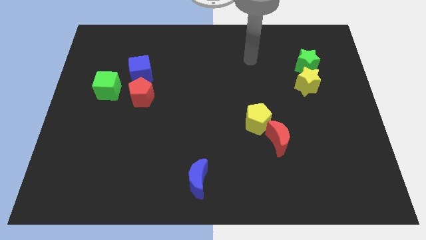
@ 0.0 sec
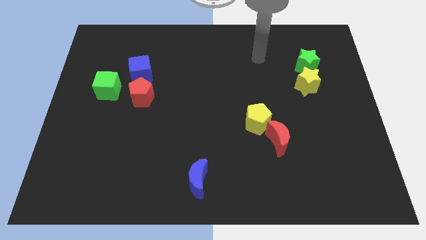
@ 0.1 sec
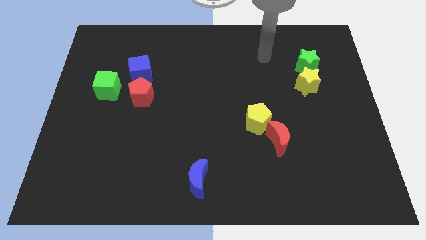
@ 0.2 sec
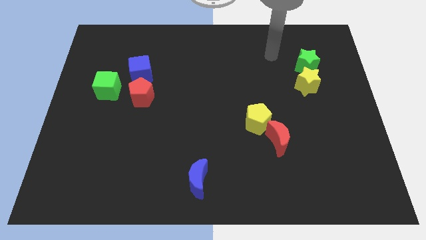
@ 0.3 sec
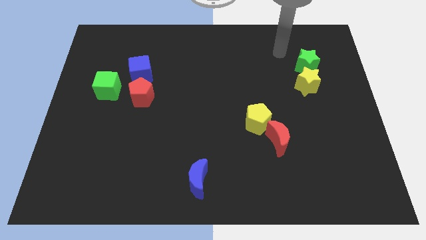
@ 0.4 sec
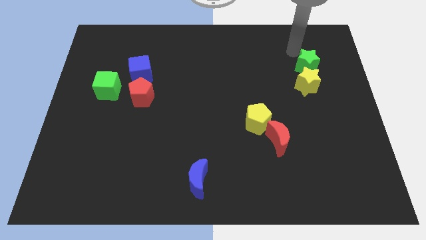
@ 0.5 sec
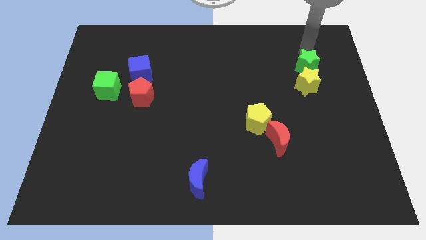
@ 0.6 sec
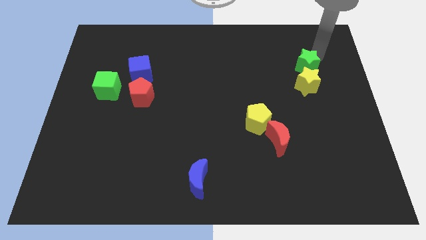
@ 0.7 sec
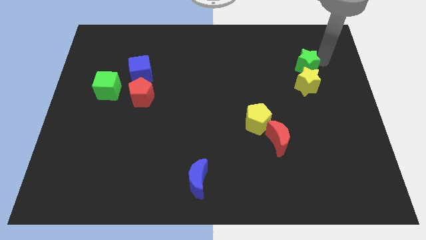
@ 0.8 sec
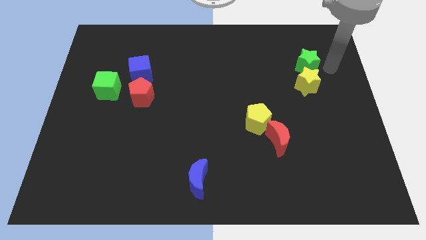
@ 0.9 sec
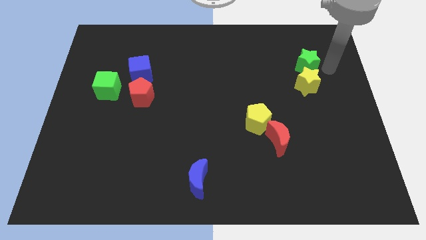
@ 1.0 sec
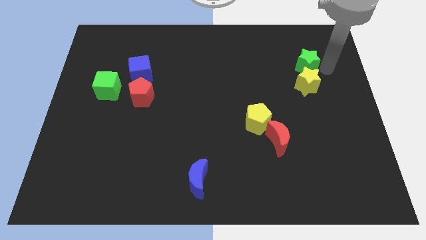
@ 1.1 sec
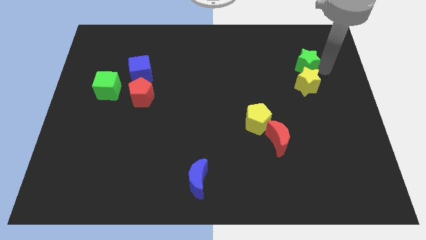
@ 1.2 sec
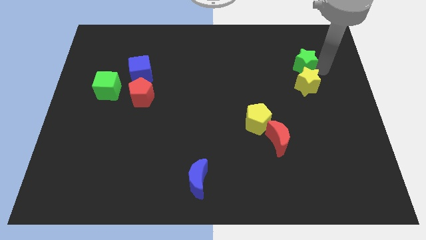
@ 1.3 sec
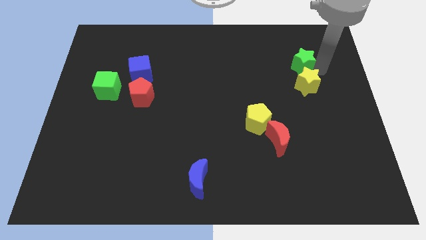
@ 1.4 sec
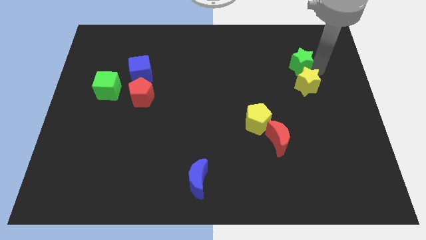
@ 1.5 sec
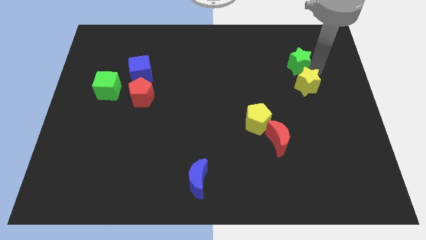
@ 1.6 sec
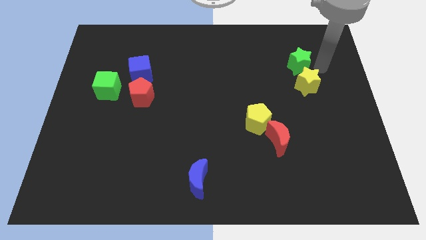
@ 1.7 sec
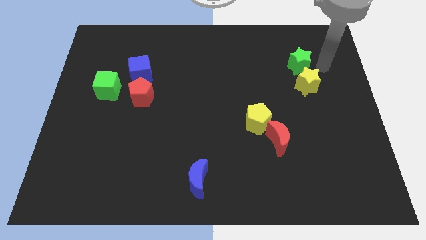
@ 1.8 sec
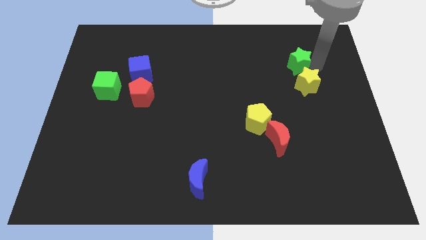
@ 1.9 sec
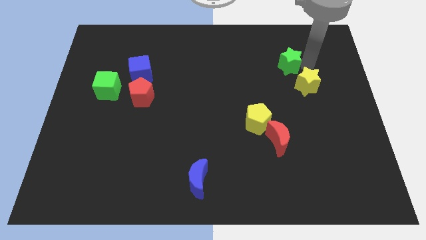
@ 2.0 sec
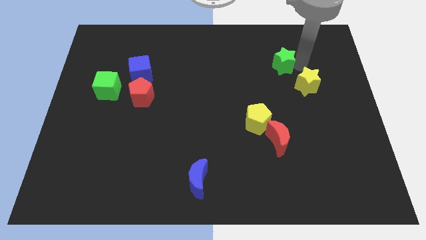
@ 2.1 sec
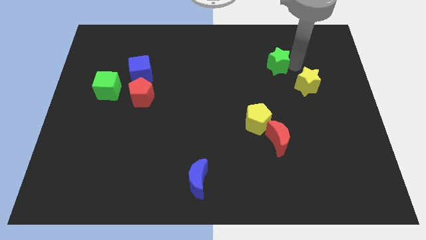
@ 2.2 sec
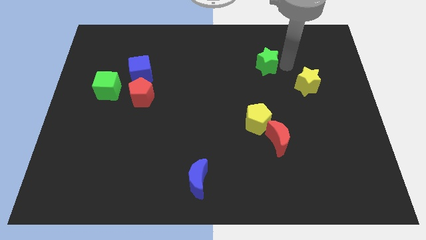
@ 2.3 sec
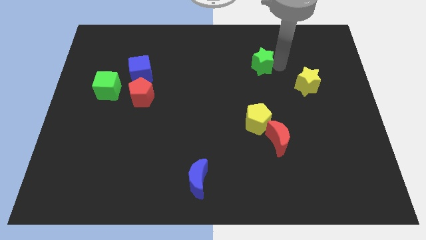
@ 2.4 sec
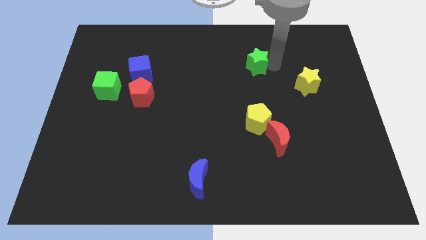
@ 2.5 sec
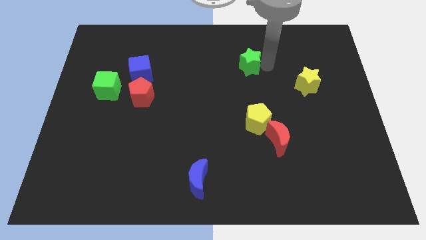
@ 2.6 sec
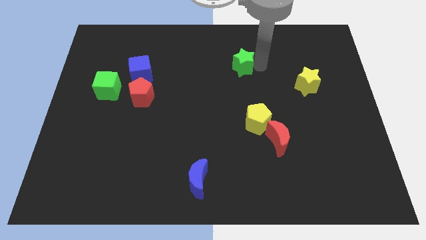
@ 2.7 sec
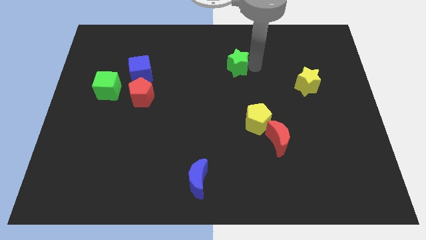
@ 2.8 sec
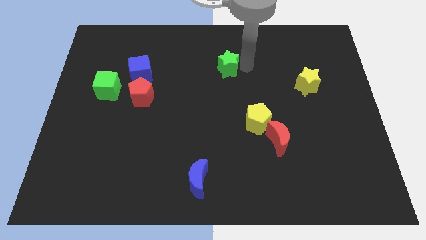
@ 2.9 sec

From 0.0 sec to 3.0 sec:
slide the green star left

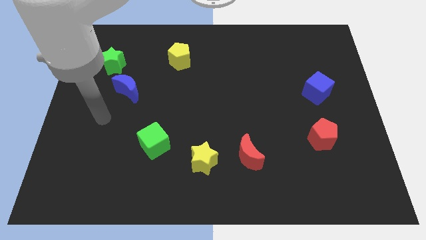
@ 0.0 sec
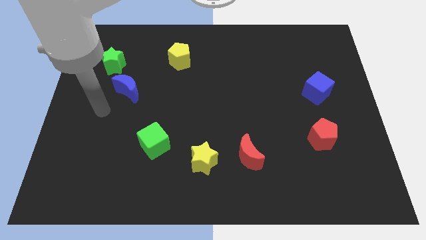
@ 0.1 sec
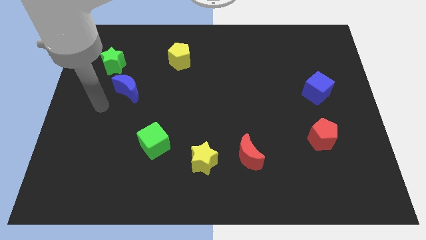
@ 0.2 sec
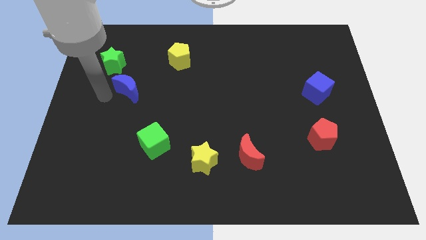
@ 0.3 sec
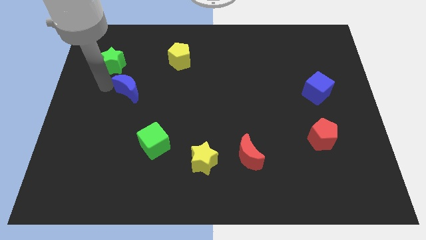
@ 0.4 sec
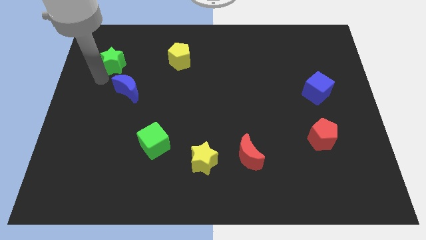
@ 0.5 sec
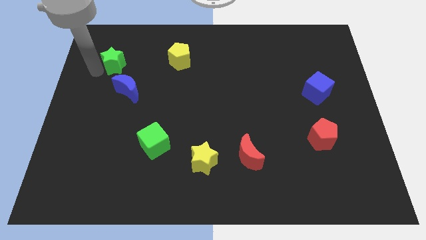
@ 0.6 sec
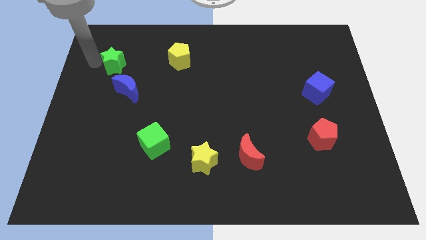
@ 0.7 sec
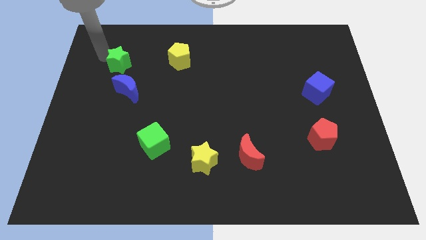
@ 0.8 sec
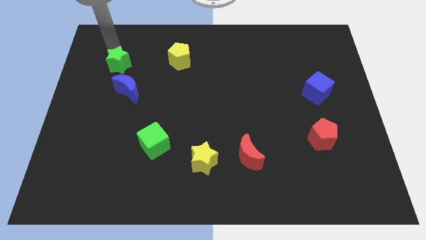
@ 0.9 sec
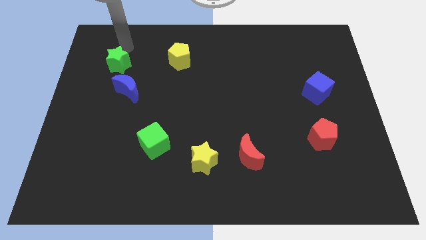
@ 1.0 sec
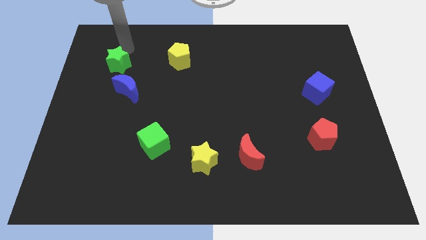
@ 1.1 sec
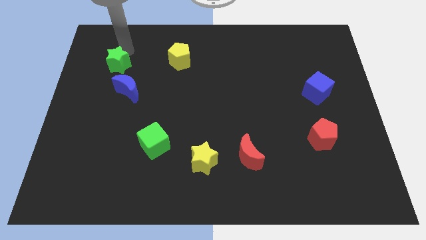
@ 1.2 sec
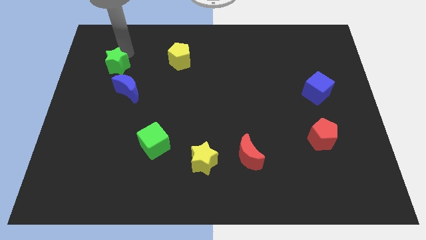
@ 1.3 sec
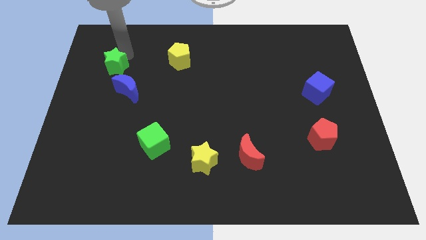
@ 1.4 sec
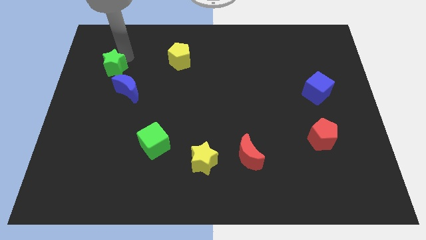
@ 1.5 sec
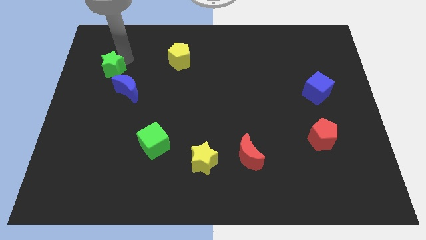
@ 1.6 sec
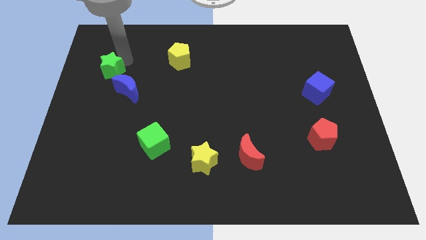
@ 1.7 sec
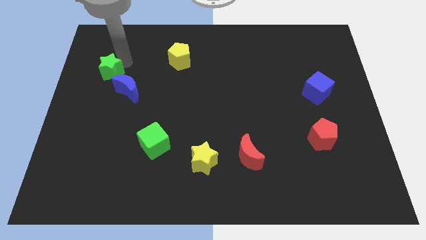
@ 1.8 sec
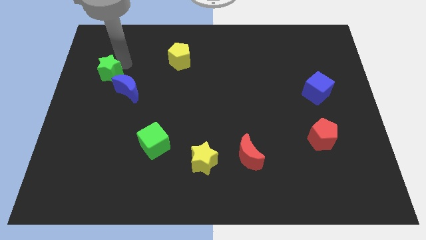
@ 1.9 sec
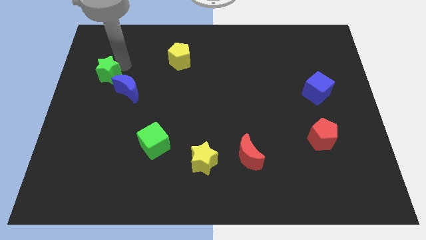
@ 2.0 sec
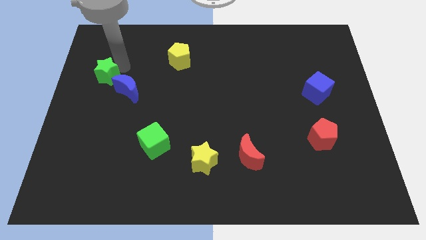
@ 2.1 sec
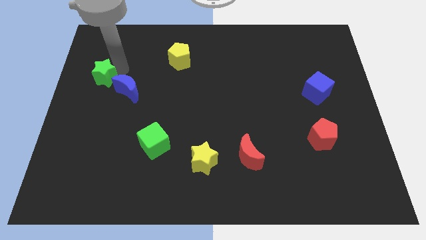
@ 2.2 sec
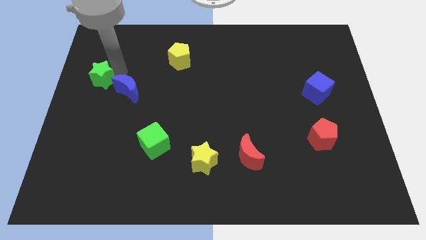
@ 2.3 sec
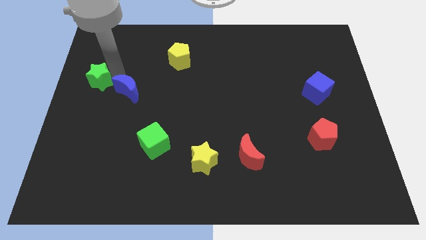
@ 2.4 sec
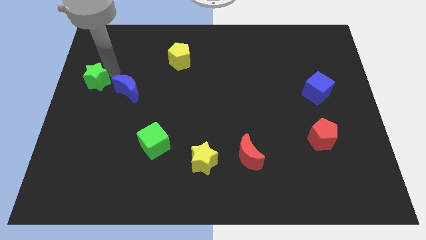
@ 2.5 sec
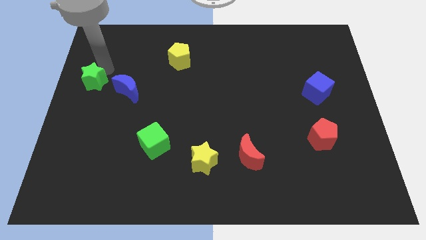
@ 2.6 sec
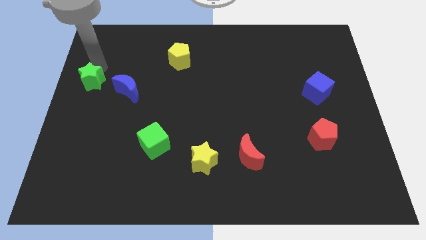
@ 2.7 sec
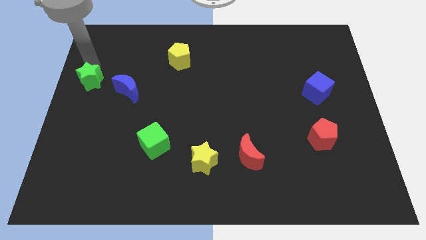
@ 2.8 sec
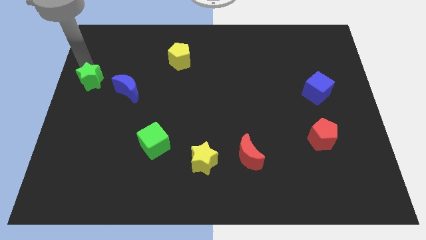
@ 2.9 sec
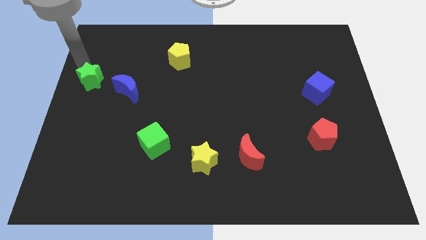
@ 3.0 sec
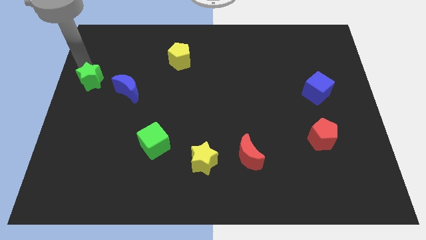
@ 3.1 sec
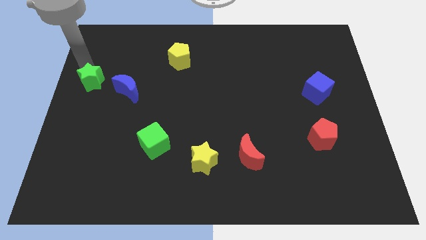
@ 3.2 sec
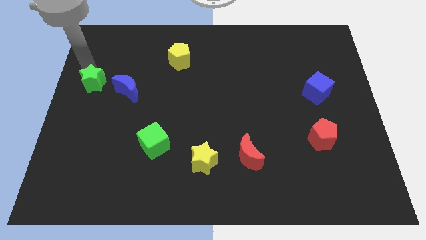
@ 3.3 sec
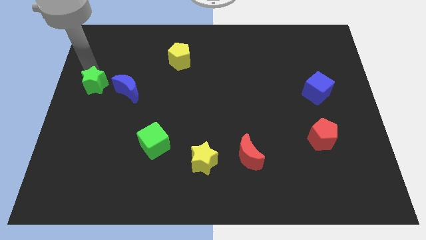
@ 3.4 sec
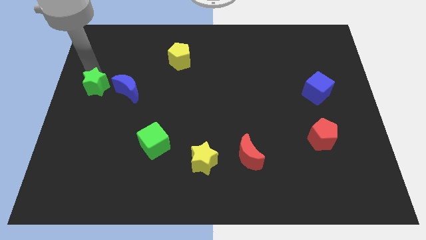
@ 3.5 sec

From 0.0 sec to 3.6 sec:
push the green star downwards a little

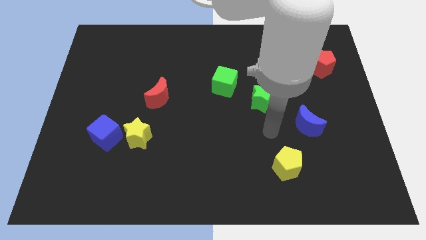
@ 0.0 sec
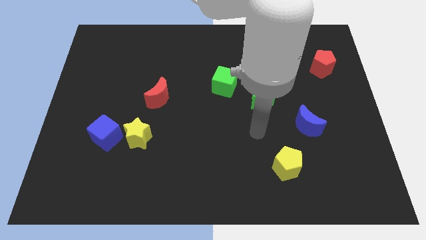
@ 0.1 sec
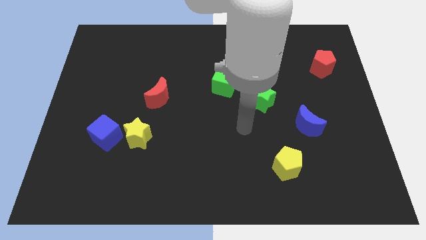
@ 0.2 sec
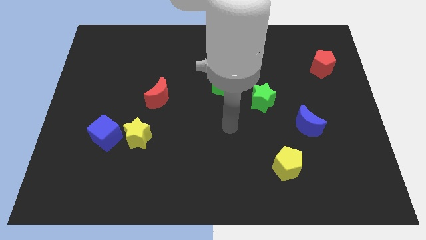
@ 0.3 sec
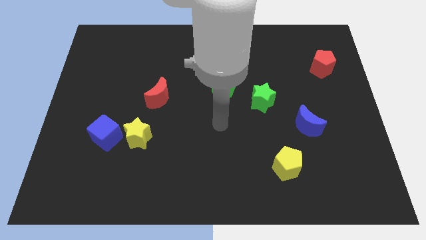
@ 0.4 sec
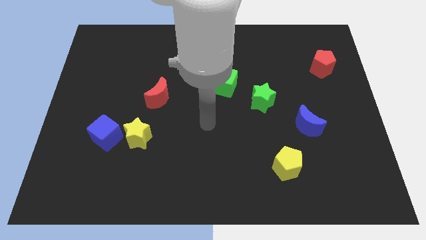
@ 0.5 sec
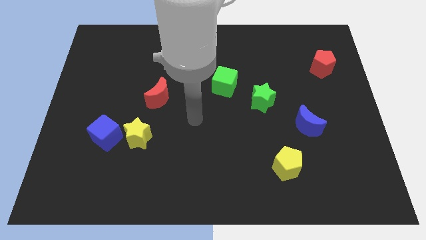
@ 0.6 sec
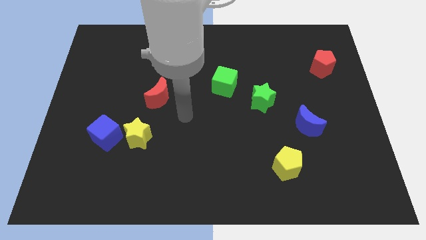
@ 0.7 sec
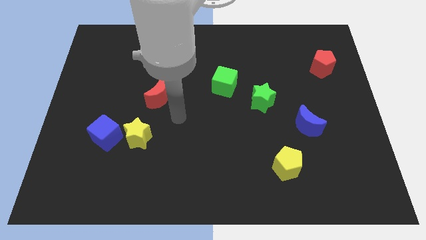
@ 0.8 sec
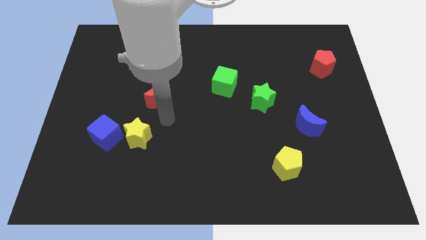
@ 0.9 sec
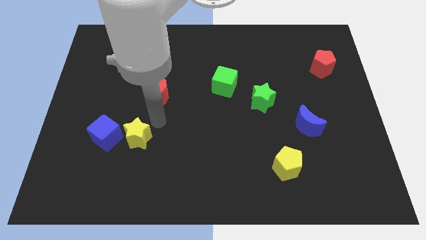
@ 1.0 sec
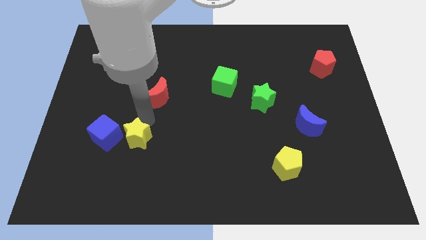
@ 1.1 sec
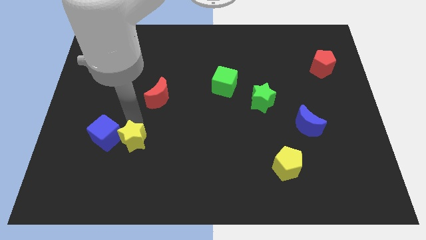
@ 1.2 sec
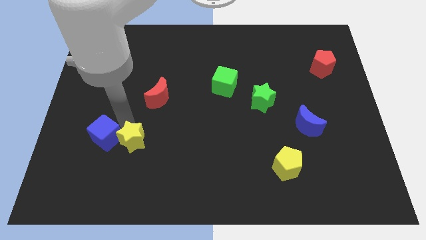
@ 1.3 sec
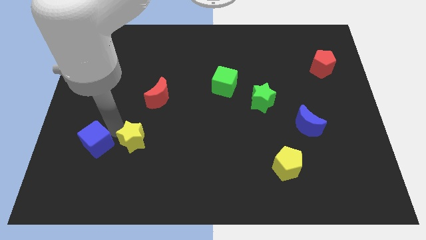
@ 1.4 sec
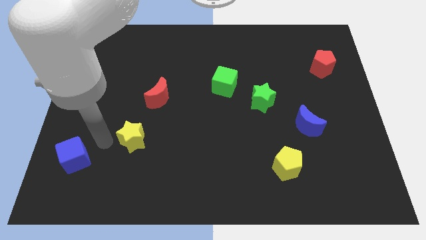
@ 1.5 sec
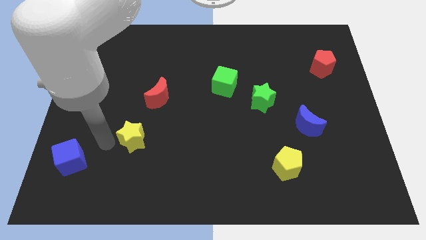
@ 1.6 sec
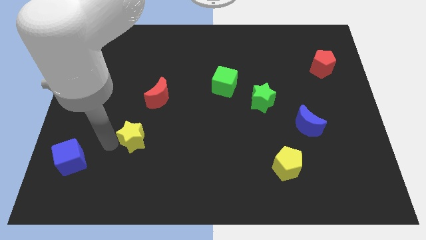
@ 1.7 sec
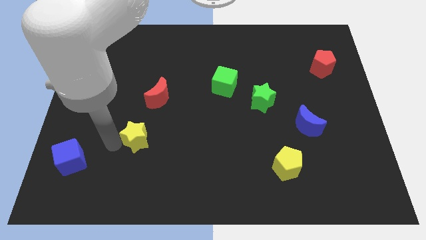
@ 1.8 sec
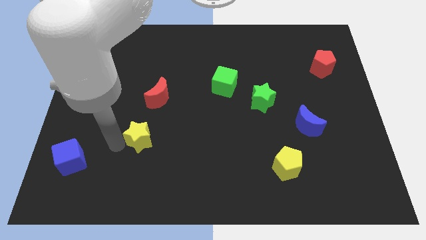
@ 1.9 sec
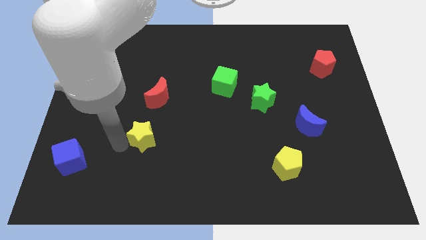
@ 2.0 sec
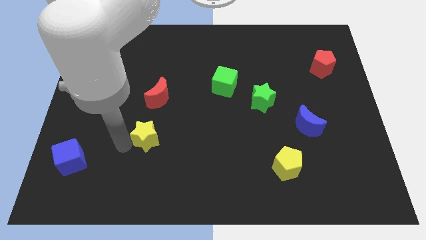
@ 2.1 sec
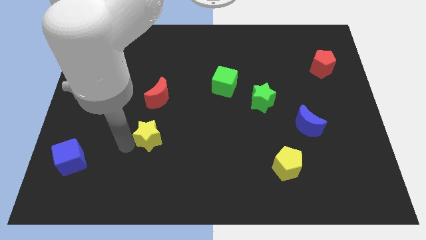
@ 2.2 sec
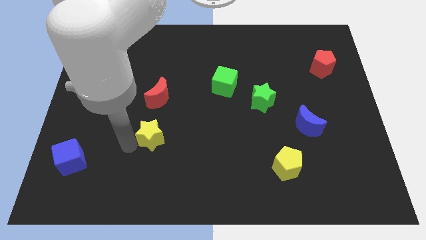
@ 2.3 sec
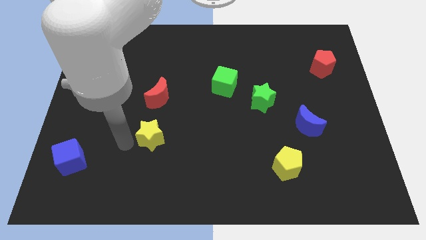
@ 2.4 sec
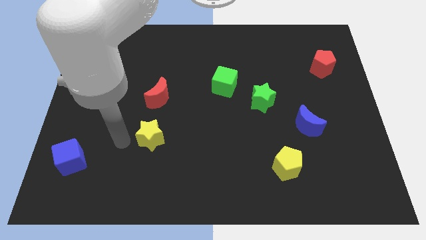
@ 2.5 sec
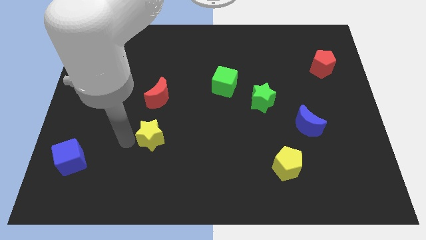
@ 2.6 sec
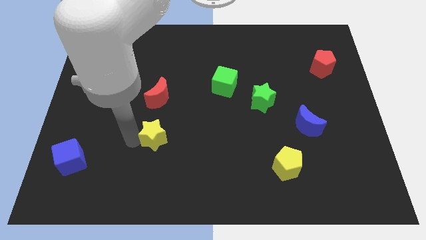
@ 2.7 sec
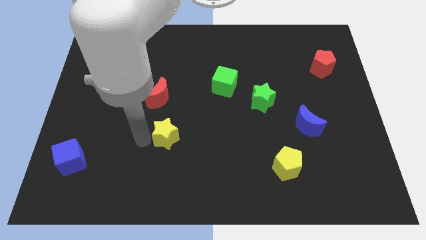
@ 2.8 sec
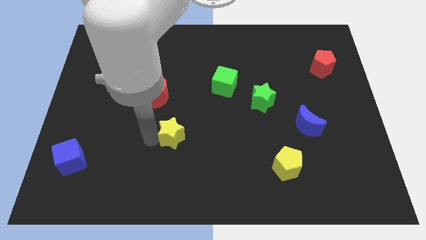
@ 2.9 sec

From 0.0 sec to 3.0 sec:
slide the yellow star right a bit
